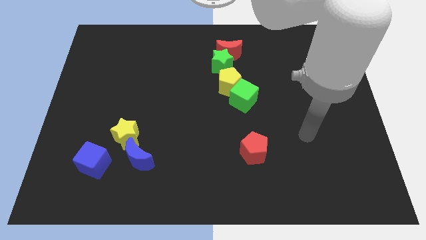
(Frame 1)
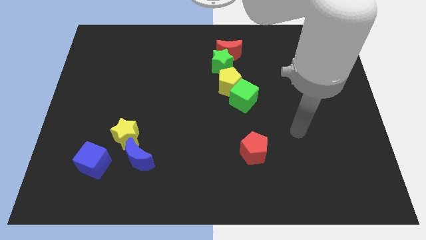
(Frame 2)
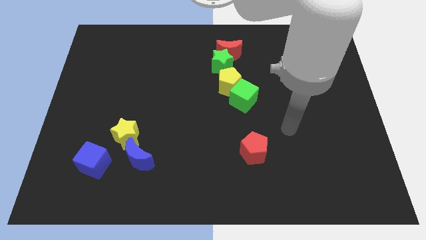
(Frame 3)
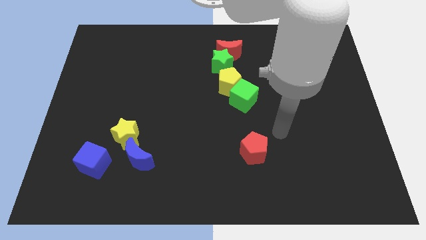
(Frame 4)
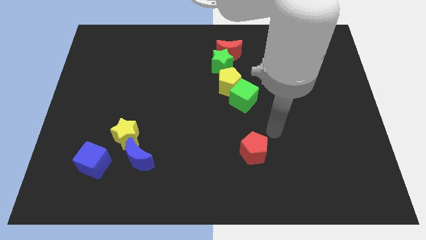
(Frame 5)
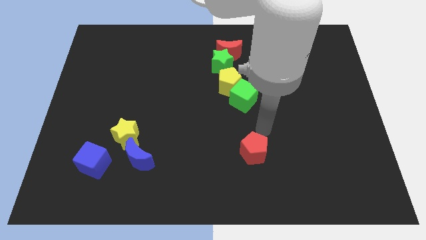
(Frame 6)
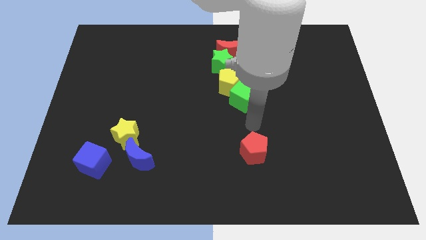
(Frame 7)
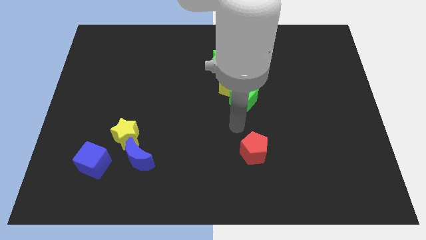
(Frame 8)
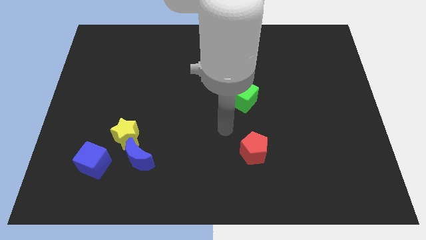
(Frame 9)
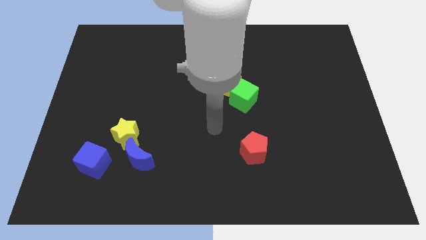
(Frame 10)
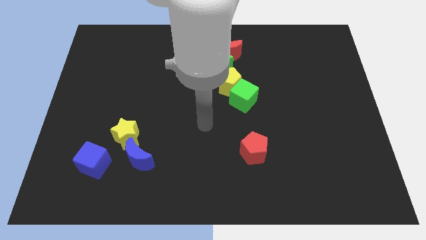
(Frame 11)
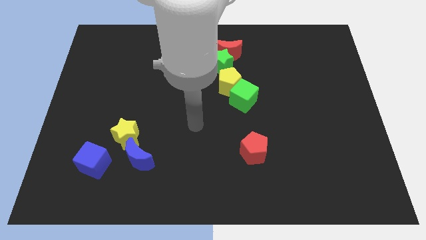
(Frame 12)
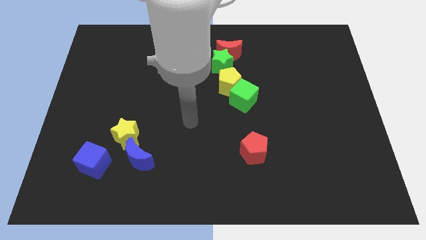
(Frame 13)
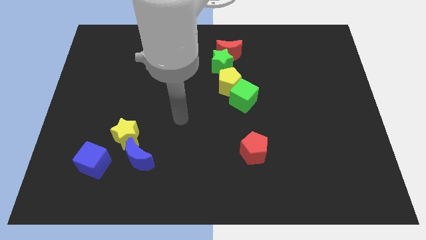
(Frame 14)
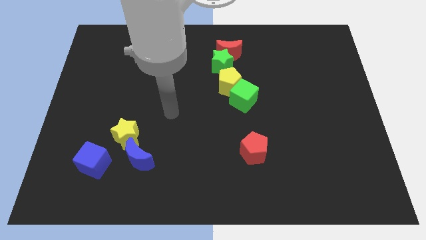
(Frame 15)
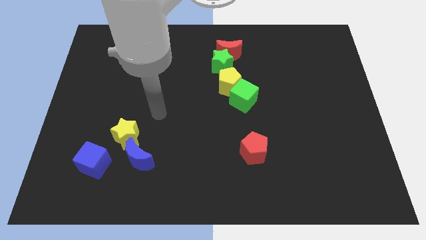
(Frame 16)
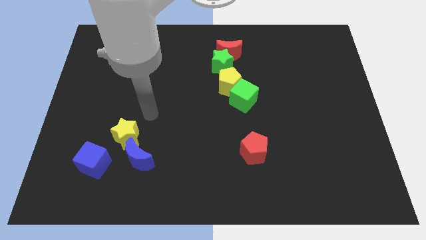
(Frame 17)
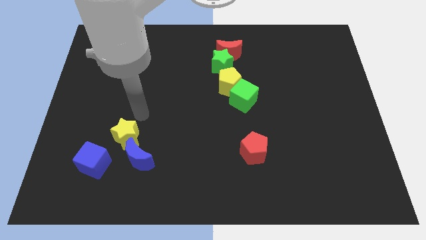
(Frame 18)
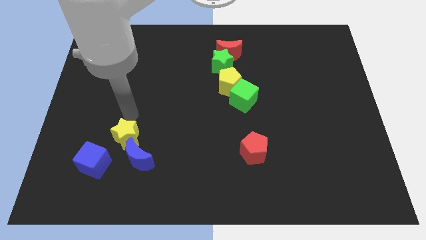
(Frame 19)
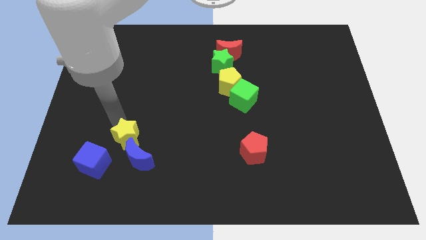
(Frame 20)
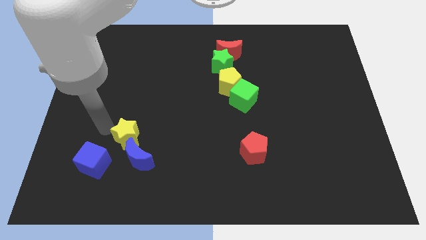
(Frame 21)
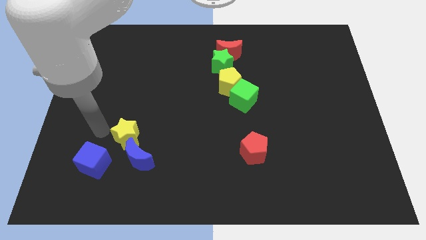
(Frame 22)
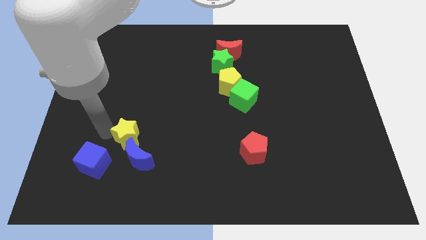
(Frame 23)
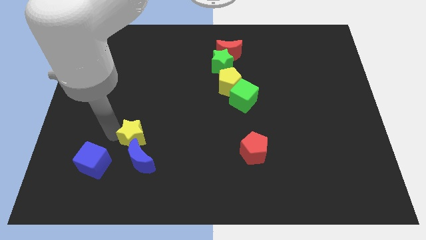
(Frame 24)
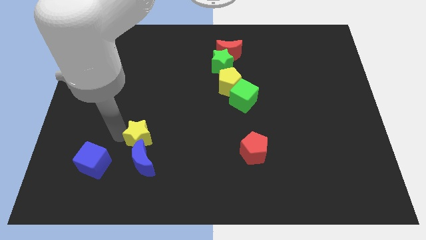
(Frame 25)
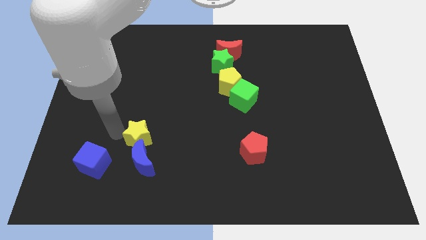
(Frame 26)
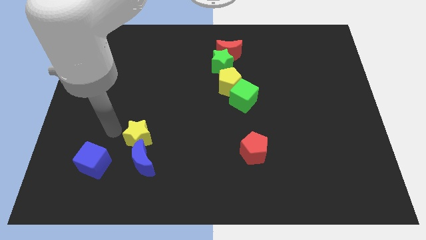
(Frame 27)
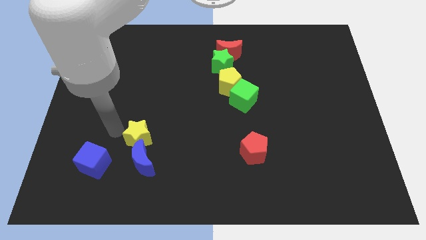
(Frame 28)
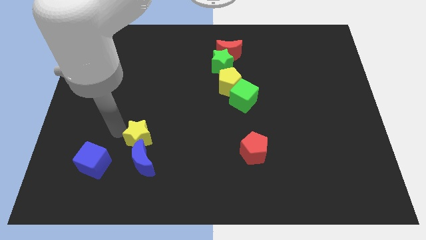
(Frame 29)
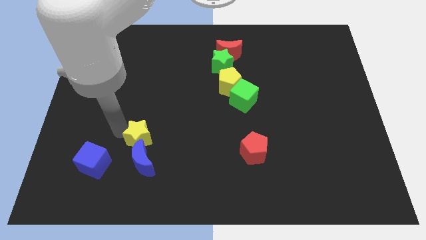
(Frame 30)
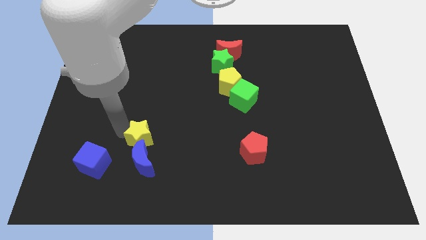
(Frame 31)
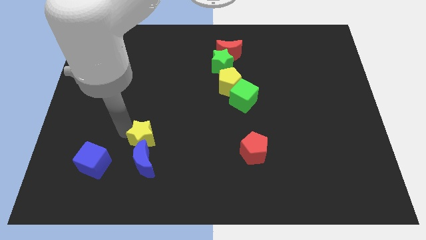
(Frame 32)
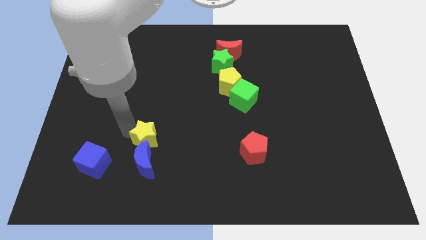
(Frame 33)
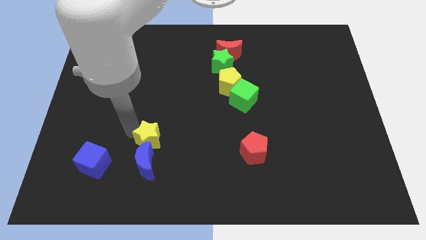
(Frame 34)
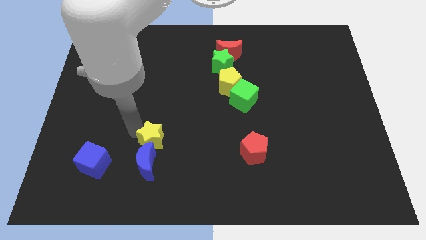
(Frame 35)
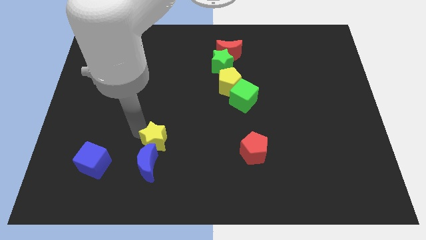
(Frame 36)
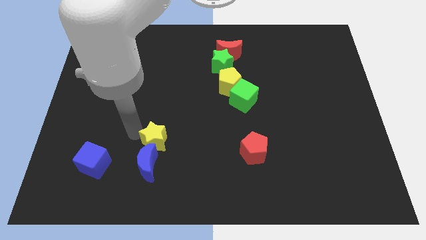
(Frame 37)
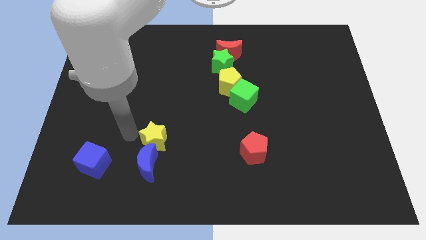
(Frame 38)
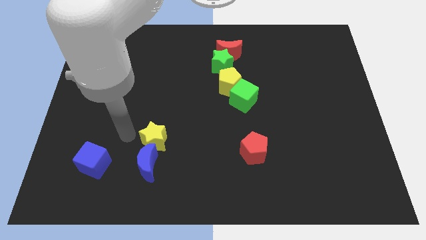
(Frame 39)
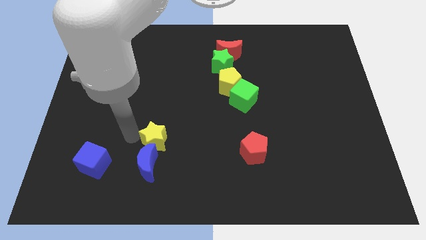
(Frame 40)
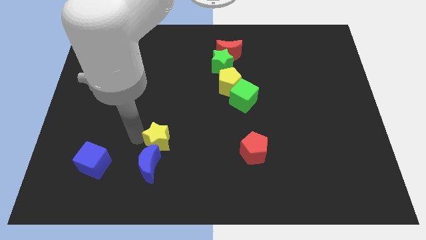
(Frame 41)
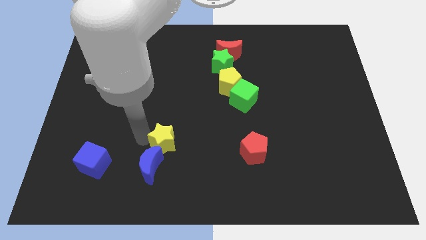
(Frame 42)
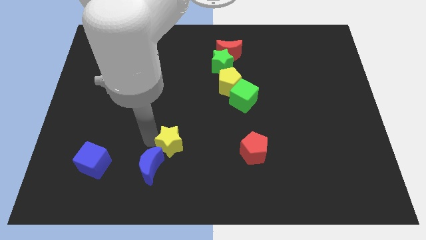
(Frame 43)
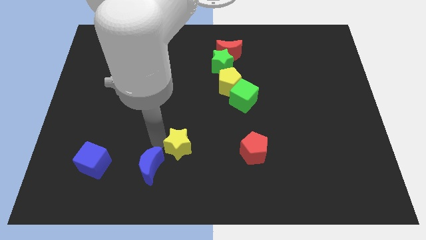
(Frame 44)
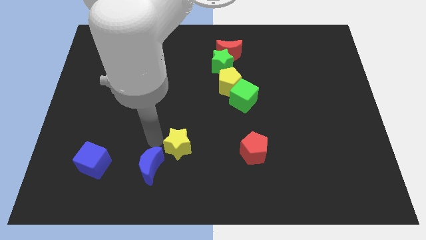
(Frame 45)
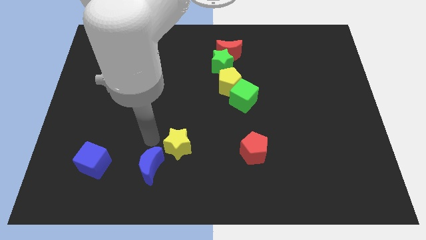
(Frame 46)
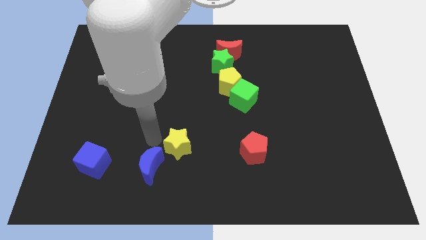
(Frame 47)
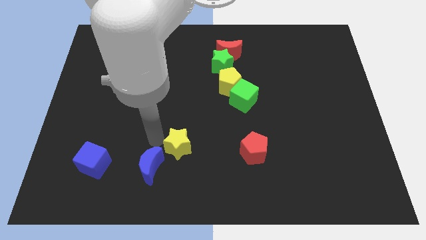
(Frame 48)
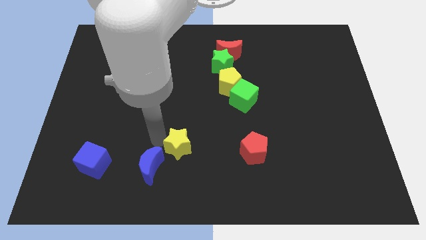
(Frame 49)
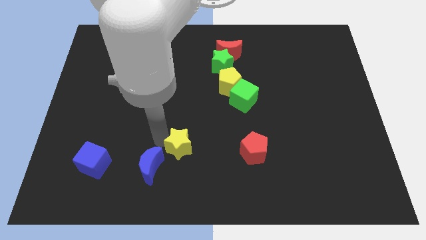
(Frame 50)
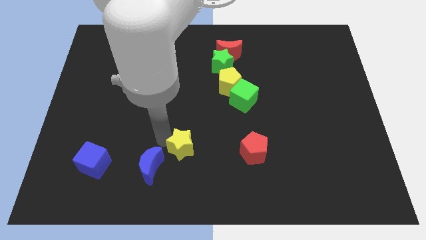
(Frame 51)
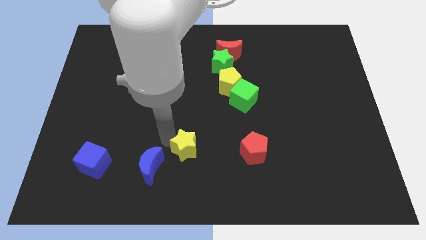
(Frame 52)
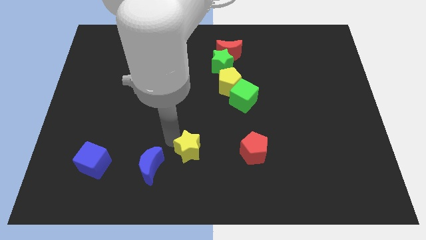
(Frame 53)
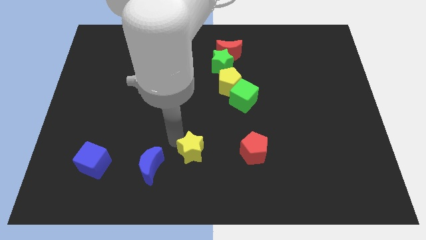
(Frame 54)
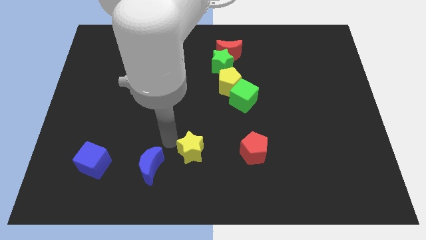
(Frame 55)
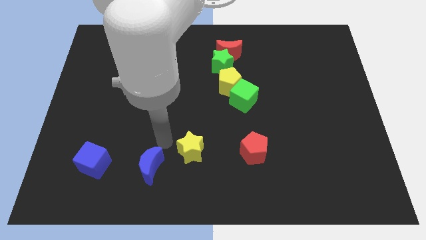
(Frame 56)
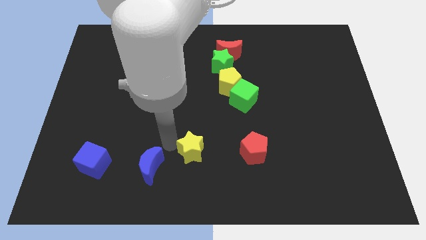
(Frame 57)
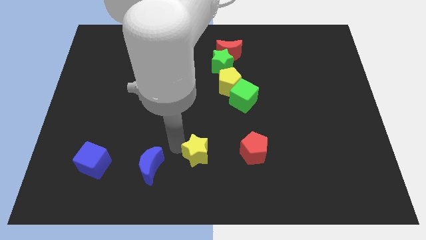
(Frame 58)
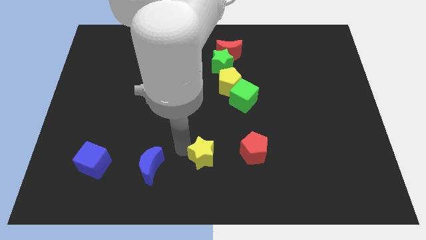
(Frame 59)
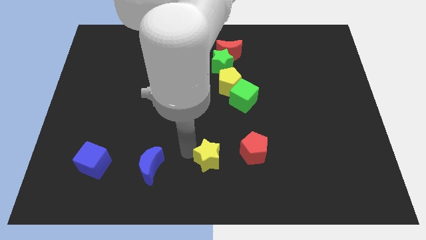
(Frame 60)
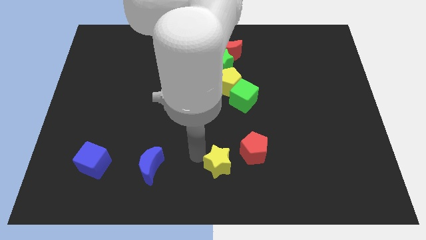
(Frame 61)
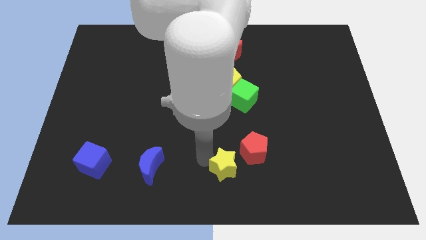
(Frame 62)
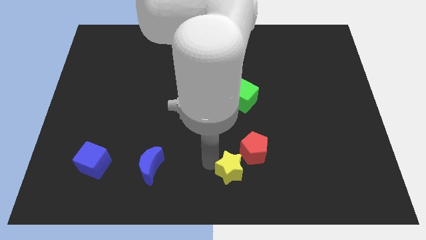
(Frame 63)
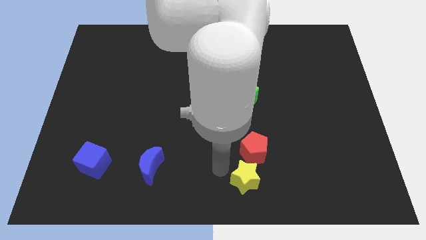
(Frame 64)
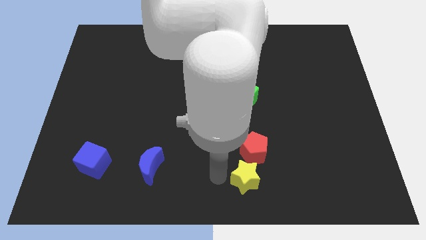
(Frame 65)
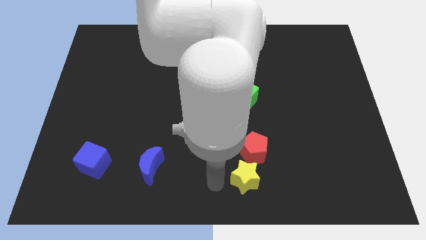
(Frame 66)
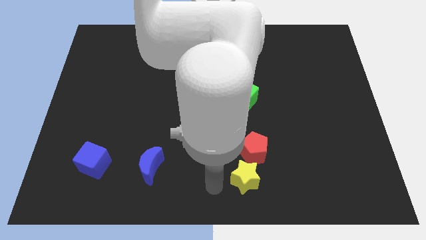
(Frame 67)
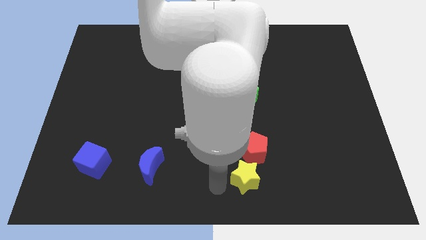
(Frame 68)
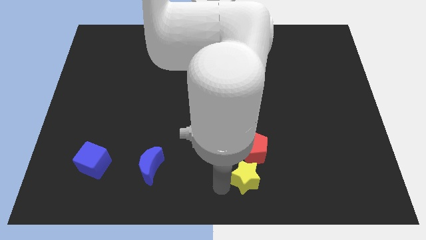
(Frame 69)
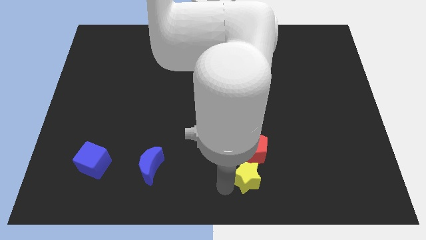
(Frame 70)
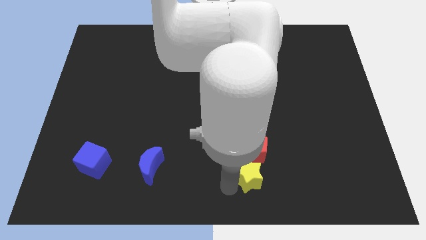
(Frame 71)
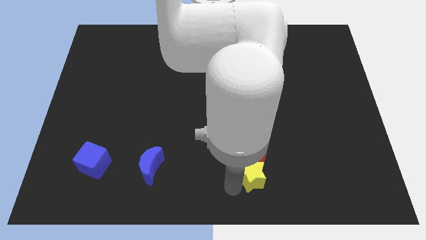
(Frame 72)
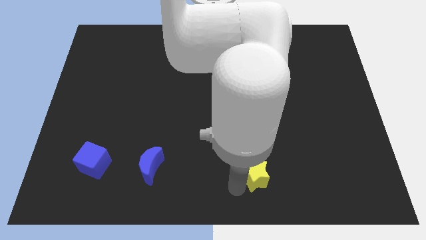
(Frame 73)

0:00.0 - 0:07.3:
slide the yellow star diagonally down and to the right of the red pentagon

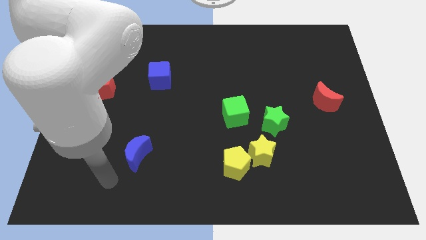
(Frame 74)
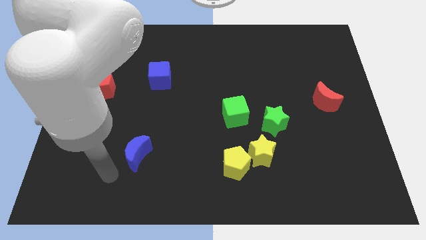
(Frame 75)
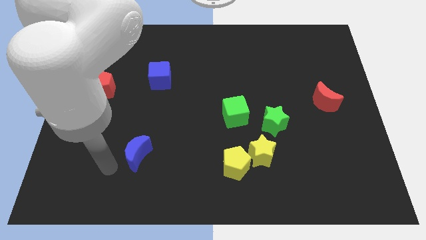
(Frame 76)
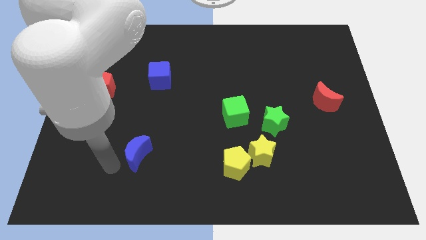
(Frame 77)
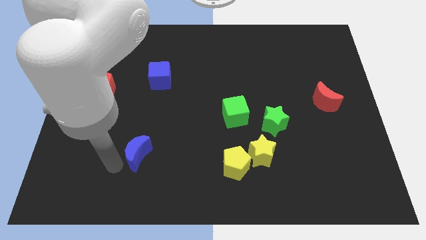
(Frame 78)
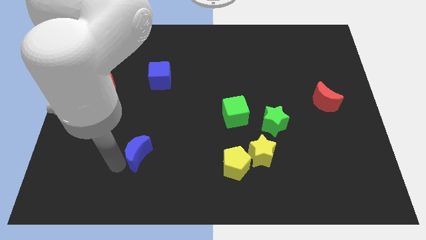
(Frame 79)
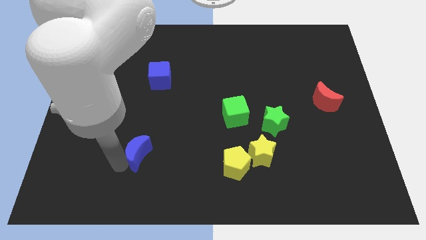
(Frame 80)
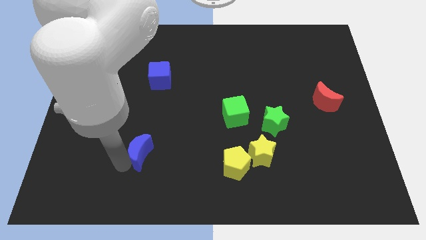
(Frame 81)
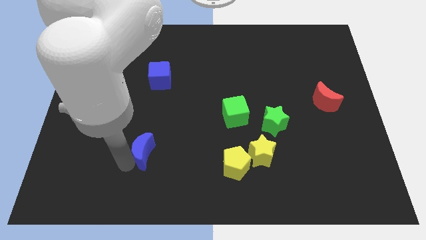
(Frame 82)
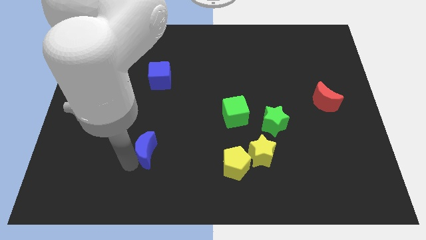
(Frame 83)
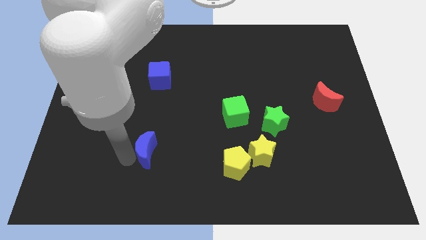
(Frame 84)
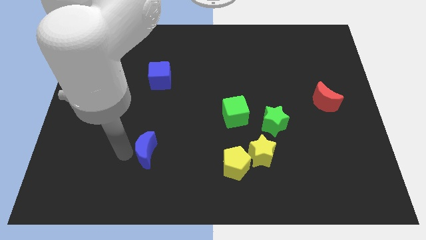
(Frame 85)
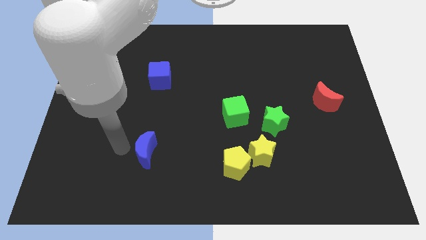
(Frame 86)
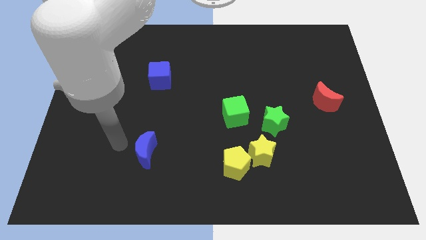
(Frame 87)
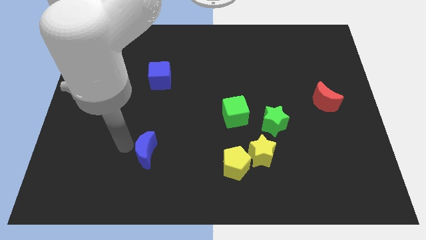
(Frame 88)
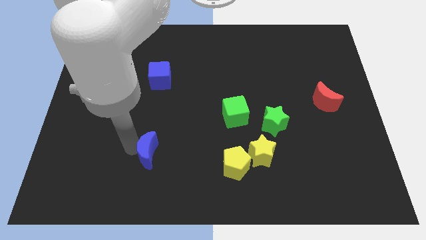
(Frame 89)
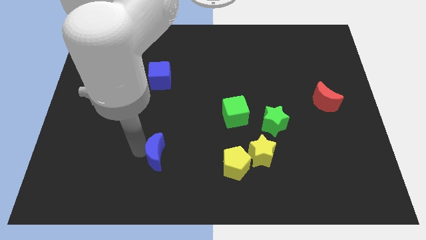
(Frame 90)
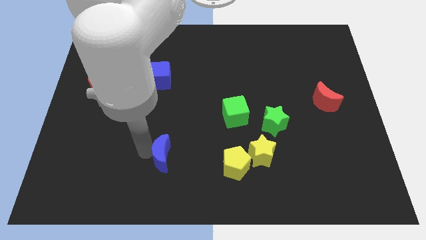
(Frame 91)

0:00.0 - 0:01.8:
move the blue moon to the left side of the yellow pentagon
